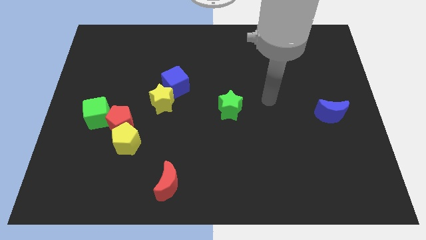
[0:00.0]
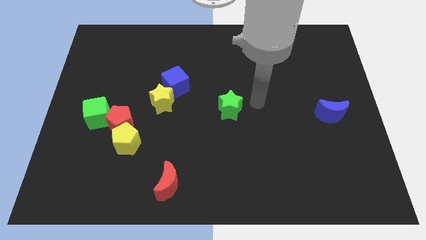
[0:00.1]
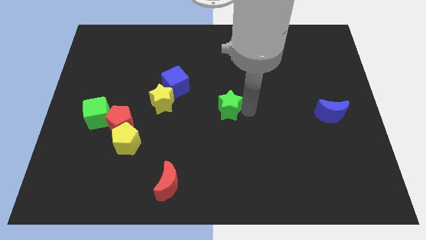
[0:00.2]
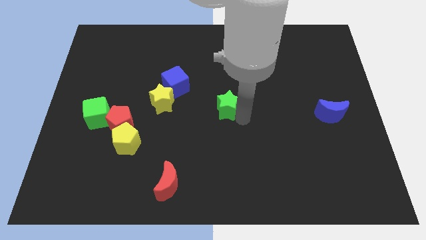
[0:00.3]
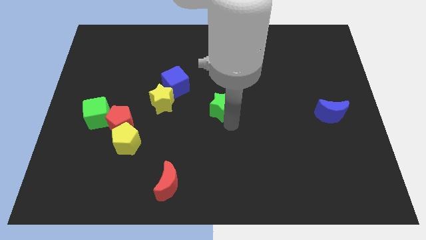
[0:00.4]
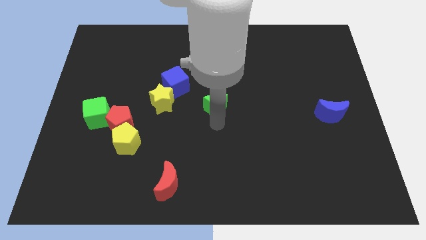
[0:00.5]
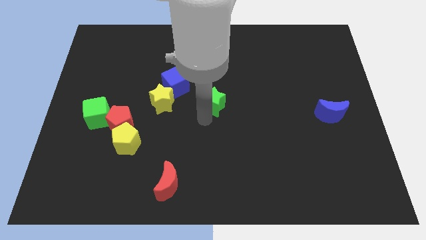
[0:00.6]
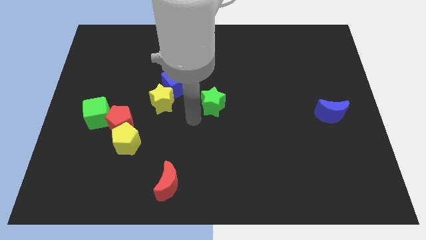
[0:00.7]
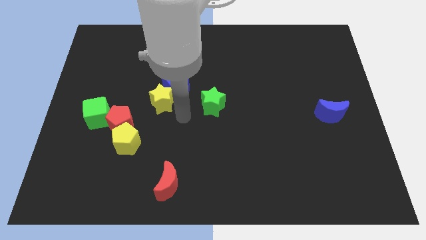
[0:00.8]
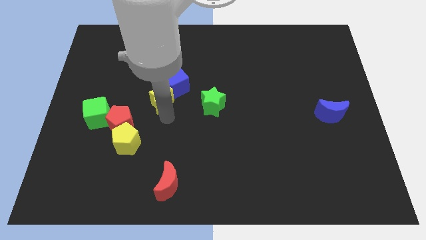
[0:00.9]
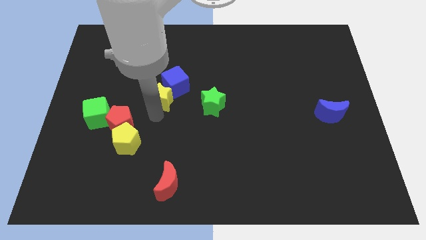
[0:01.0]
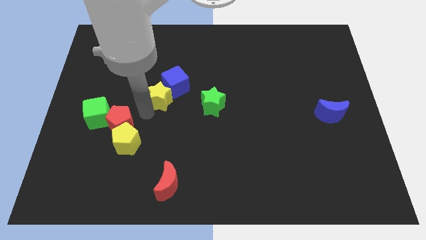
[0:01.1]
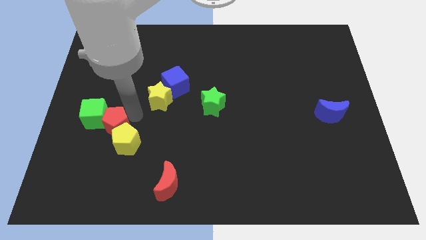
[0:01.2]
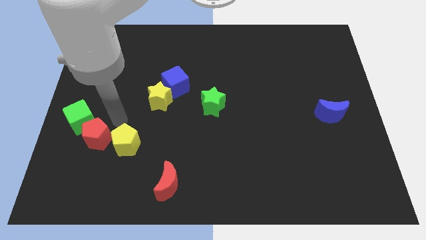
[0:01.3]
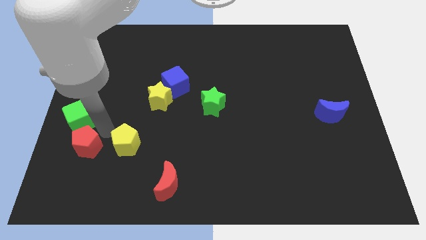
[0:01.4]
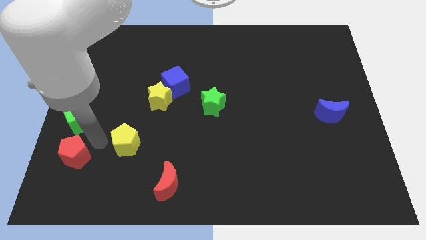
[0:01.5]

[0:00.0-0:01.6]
move the yellow pentagon away from the red pentagon

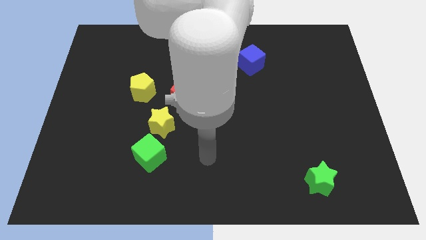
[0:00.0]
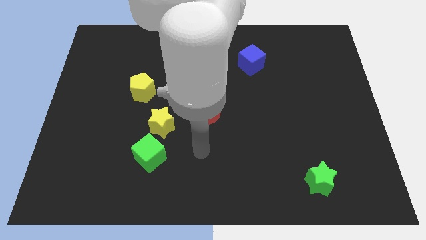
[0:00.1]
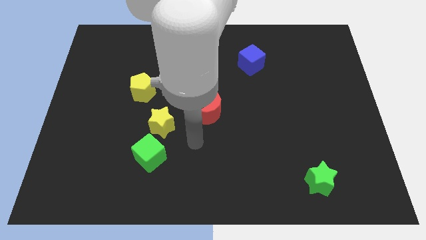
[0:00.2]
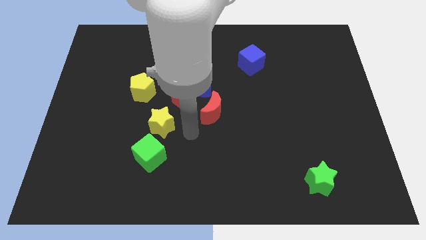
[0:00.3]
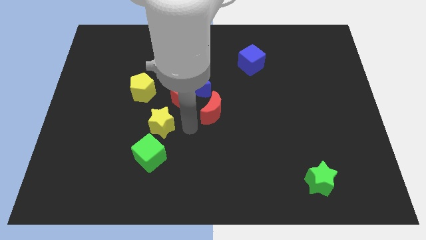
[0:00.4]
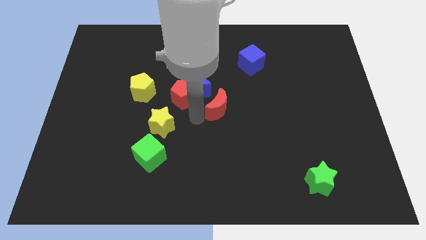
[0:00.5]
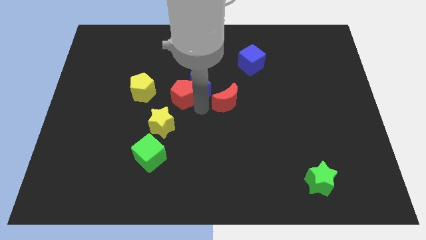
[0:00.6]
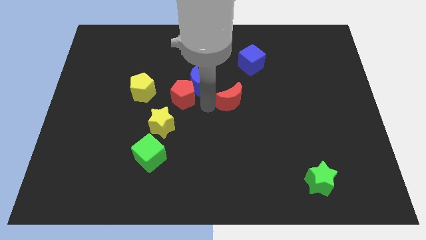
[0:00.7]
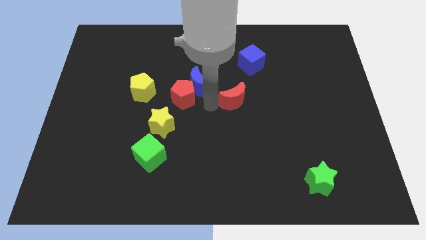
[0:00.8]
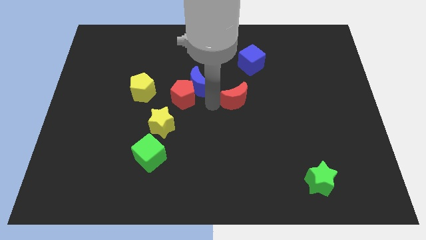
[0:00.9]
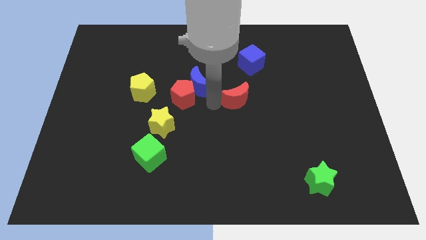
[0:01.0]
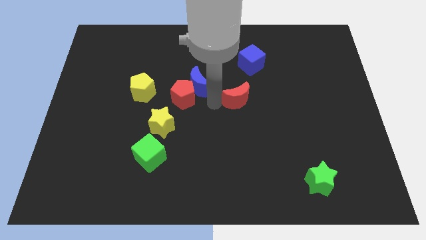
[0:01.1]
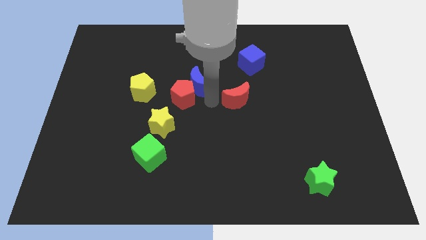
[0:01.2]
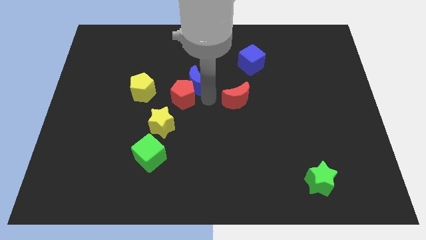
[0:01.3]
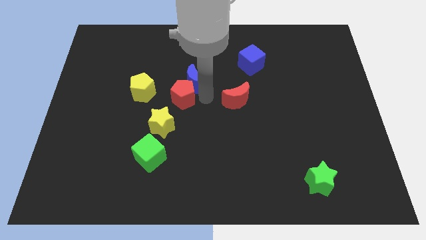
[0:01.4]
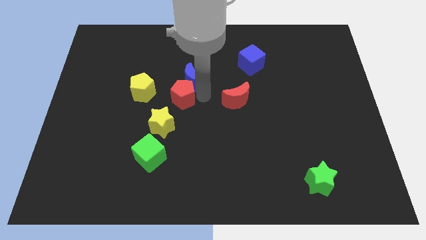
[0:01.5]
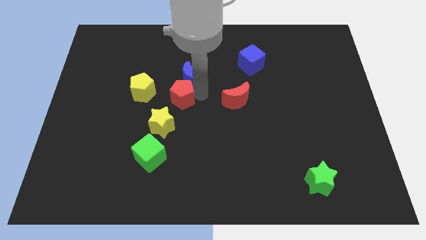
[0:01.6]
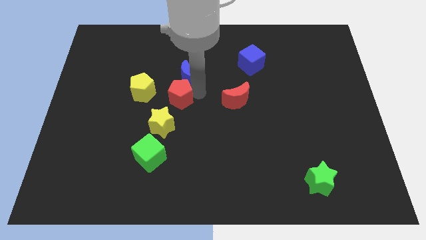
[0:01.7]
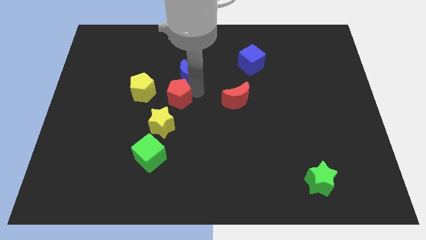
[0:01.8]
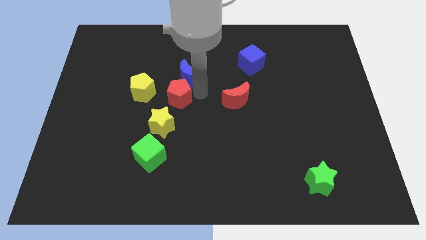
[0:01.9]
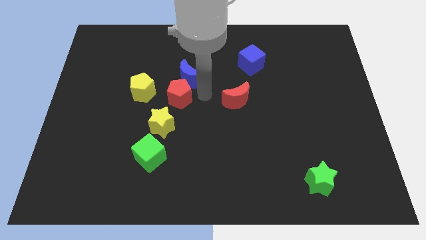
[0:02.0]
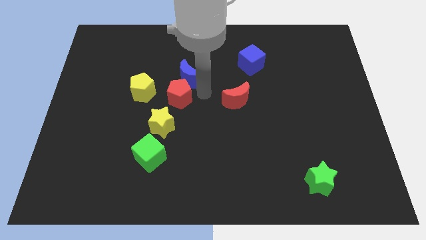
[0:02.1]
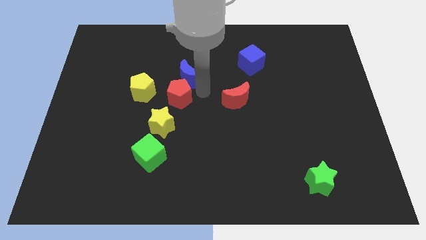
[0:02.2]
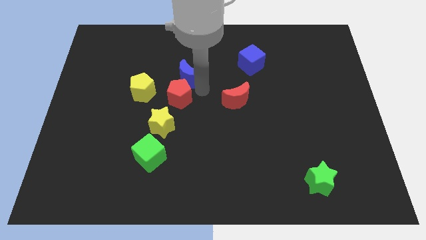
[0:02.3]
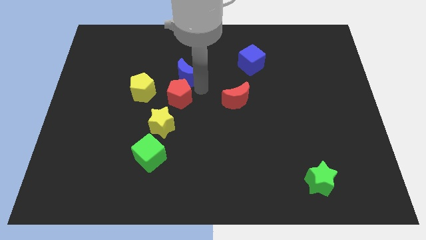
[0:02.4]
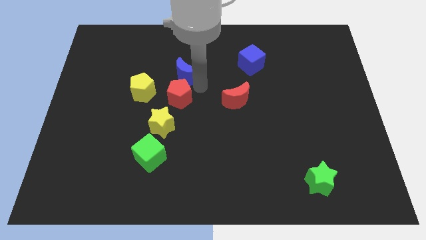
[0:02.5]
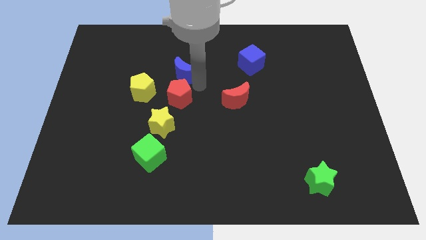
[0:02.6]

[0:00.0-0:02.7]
pull the blue moon apart from the red pentagon and red moon

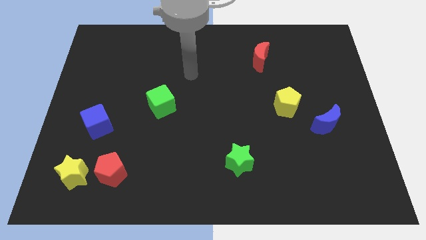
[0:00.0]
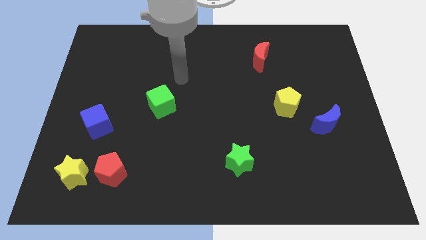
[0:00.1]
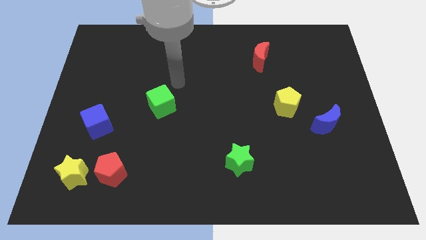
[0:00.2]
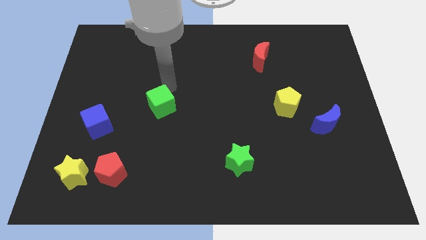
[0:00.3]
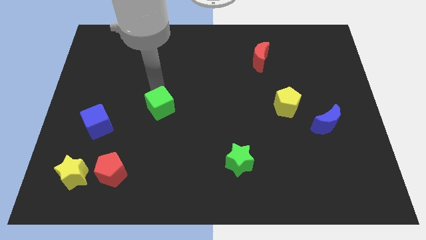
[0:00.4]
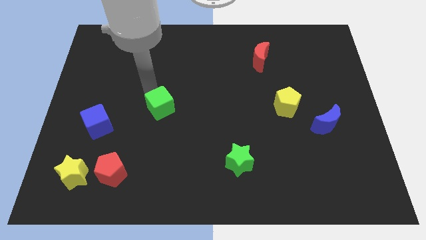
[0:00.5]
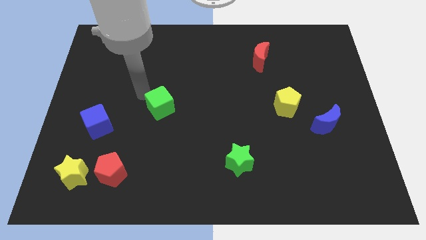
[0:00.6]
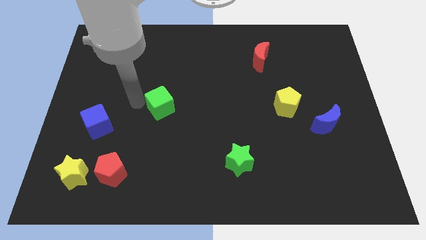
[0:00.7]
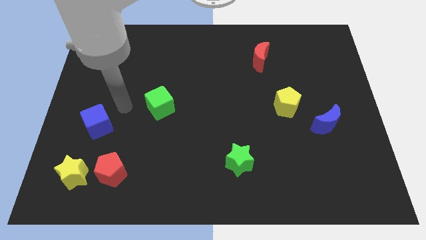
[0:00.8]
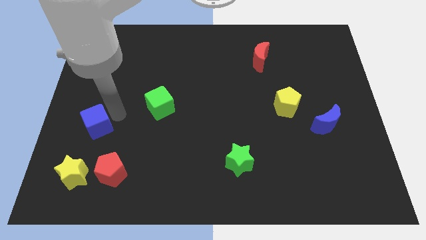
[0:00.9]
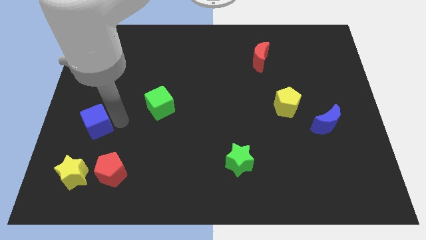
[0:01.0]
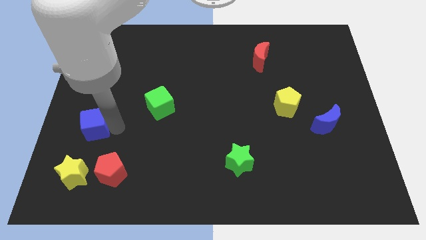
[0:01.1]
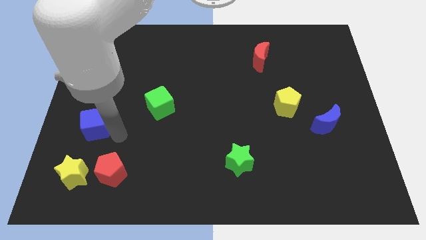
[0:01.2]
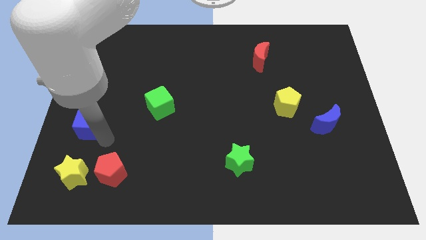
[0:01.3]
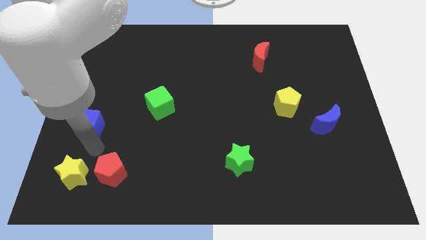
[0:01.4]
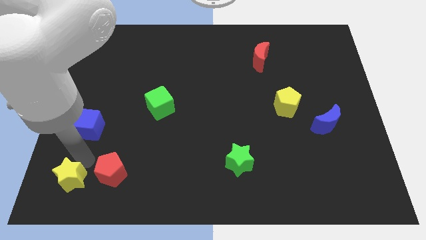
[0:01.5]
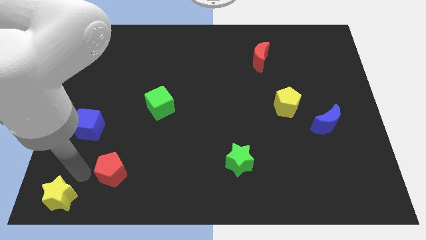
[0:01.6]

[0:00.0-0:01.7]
separate the red pentagon from the yellow star

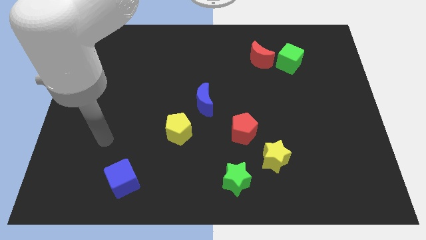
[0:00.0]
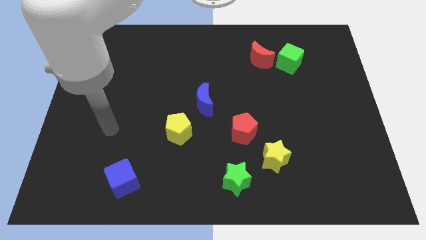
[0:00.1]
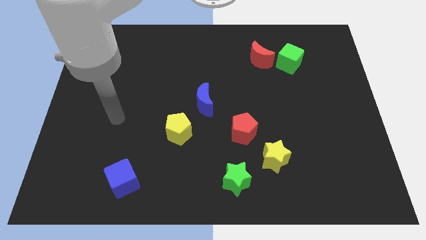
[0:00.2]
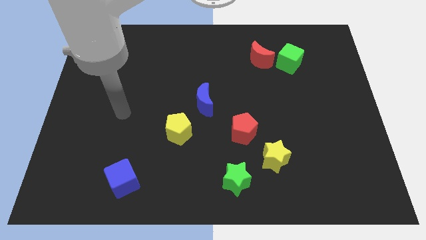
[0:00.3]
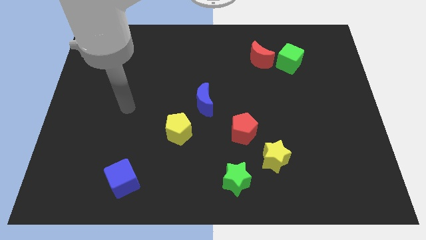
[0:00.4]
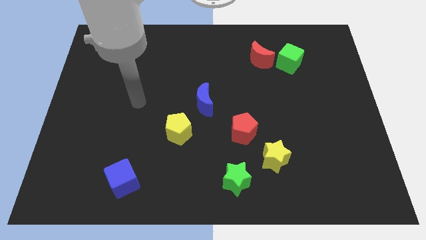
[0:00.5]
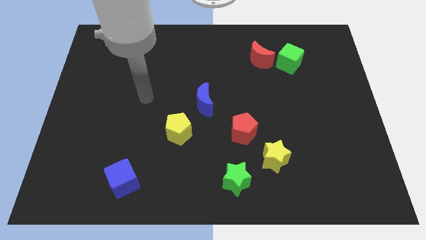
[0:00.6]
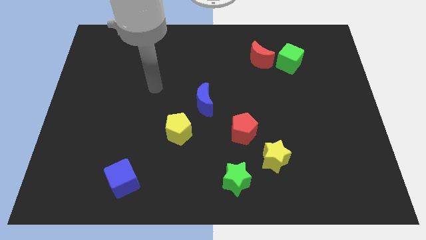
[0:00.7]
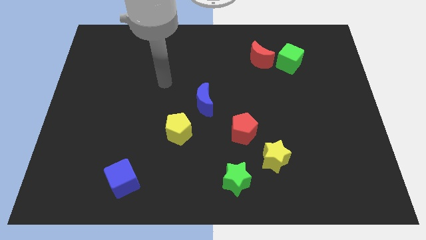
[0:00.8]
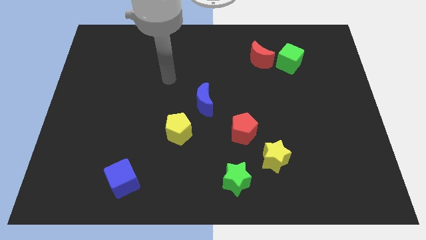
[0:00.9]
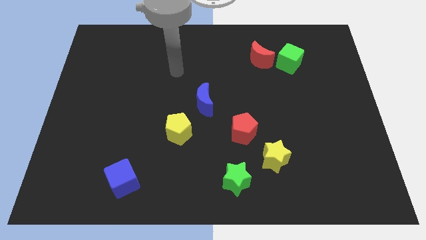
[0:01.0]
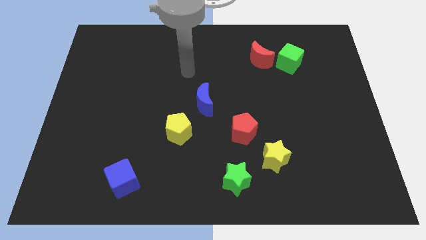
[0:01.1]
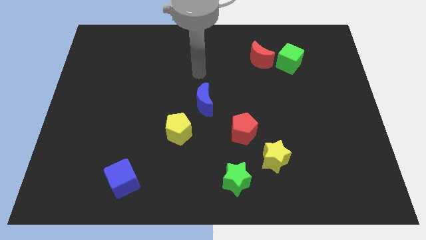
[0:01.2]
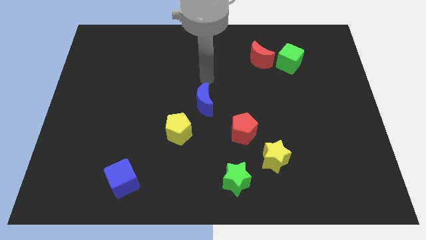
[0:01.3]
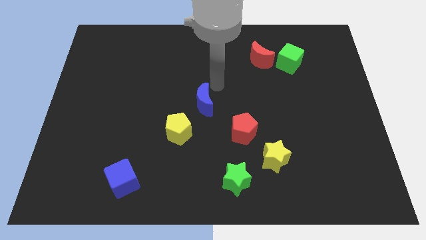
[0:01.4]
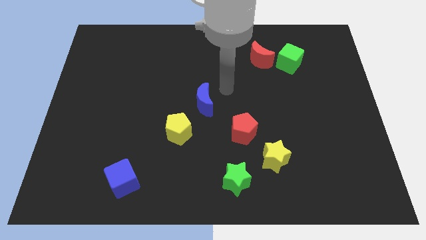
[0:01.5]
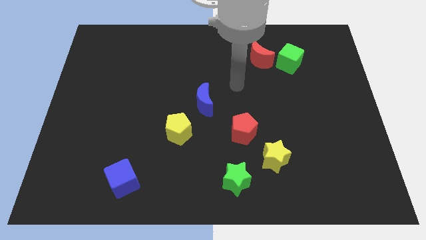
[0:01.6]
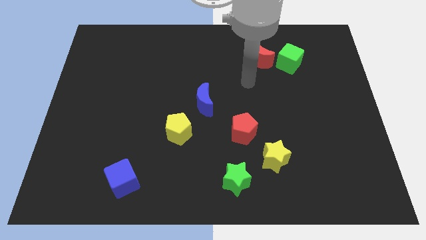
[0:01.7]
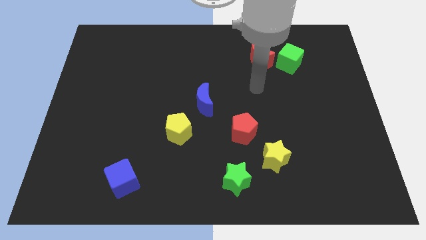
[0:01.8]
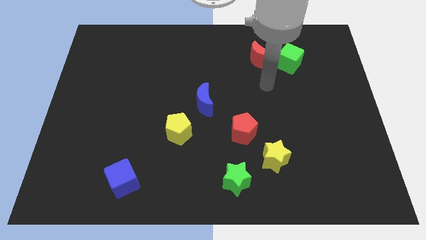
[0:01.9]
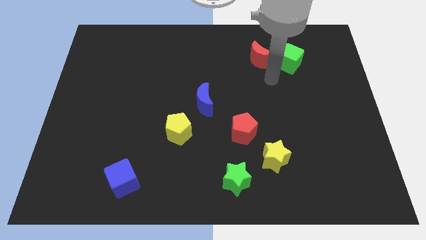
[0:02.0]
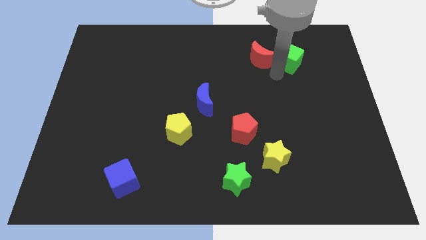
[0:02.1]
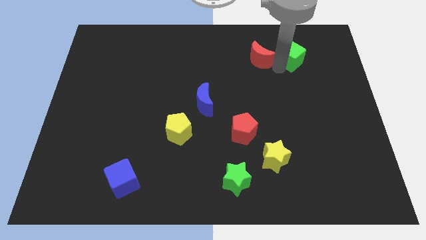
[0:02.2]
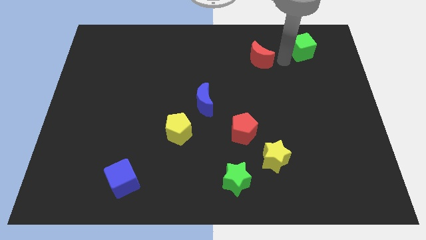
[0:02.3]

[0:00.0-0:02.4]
move the red moon away from the green cube

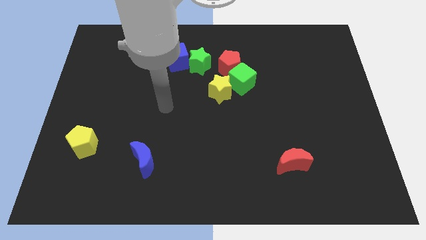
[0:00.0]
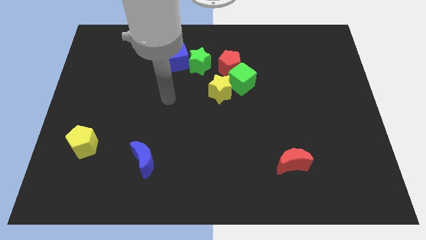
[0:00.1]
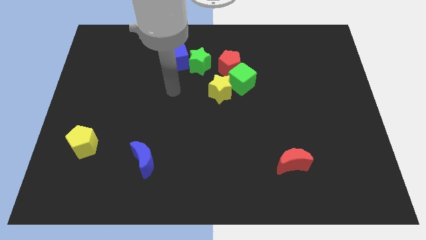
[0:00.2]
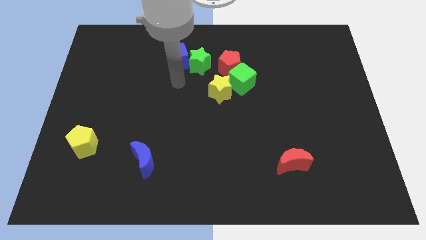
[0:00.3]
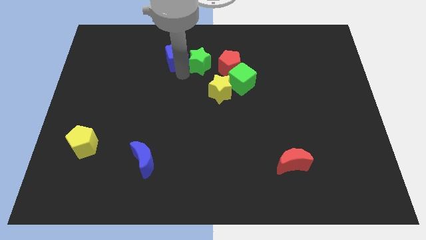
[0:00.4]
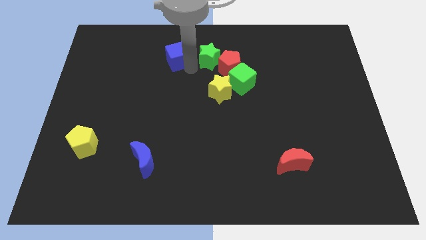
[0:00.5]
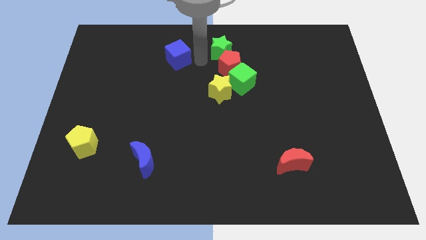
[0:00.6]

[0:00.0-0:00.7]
pull the blue cube apart from the green star

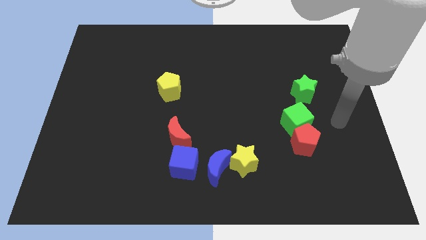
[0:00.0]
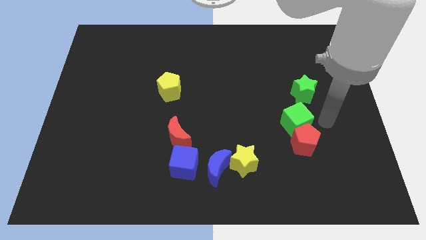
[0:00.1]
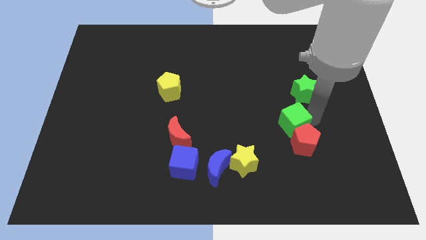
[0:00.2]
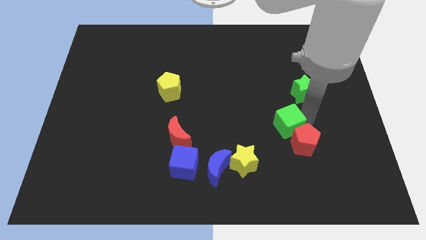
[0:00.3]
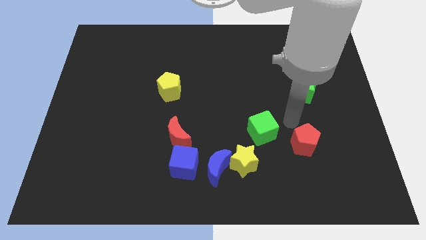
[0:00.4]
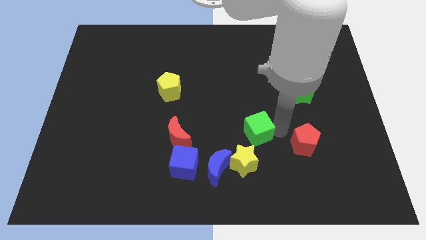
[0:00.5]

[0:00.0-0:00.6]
move the red pentagon away from the green cube
